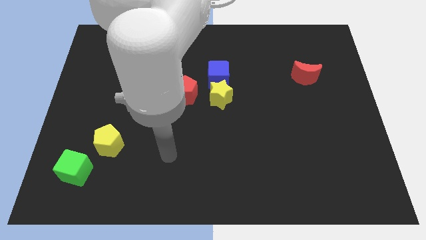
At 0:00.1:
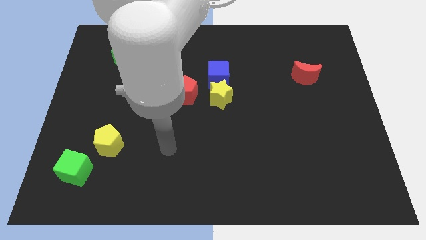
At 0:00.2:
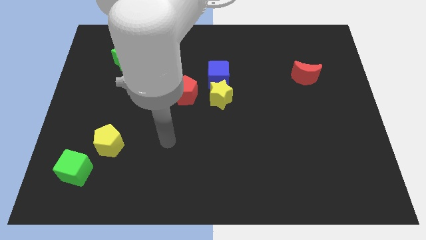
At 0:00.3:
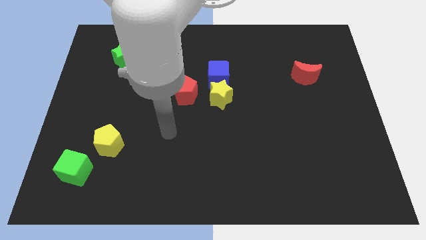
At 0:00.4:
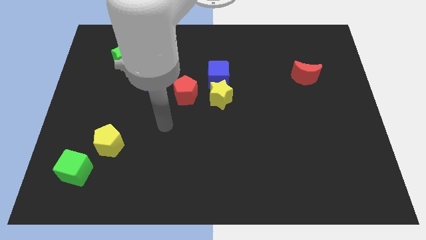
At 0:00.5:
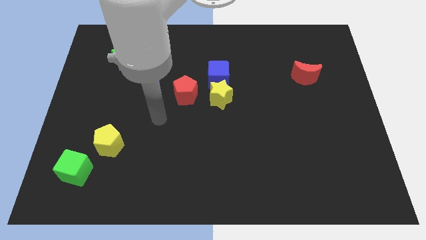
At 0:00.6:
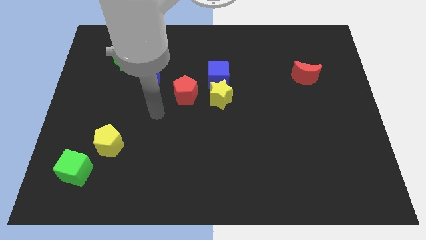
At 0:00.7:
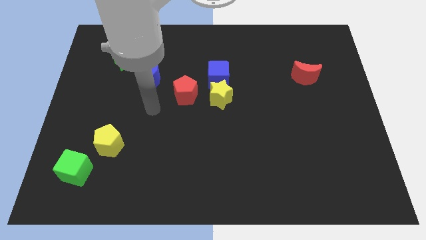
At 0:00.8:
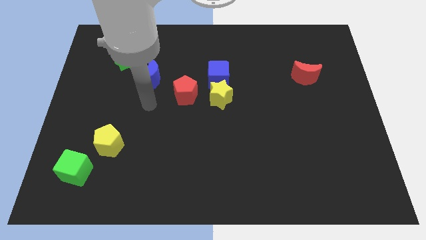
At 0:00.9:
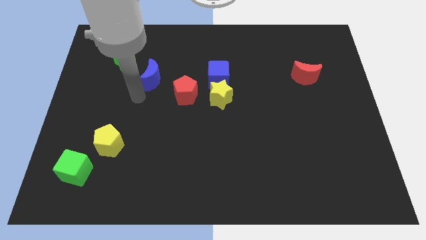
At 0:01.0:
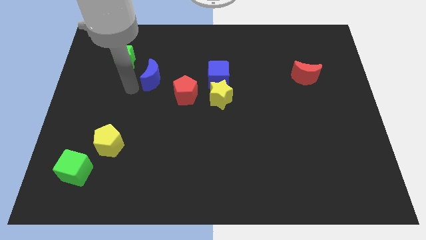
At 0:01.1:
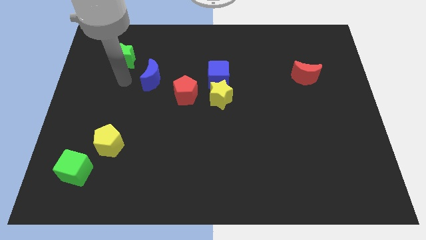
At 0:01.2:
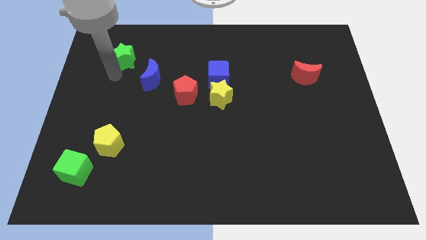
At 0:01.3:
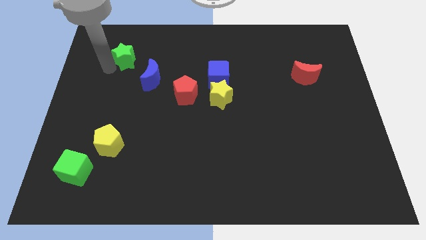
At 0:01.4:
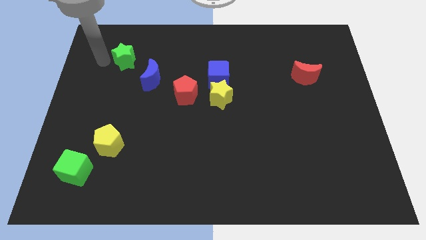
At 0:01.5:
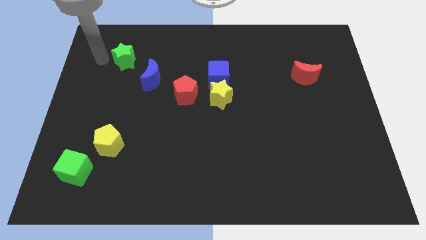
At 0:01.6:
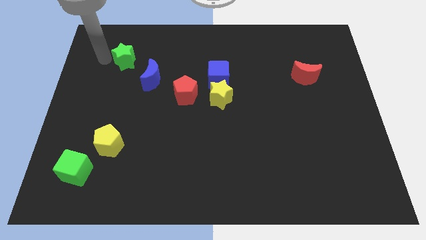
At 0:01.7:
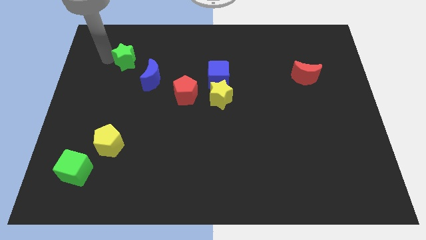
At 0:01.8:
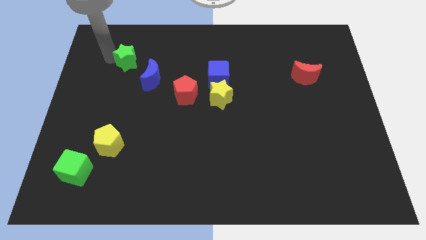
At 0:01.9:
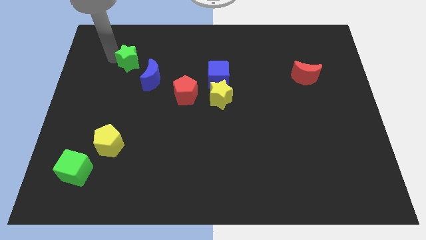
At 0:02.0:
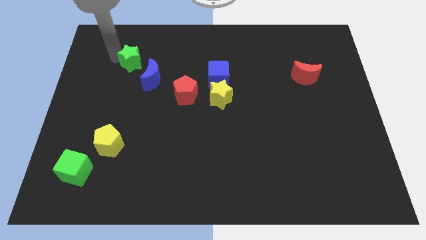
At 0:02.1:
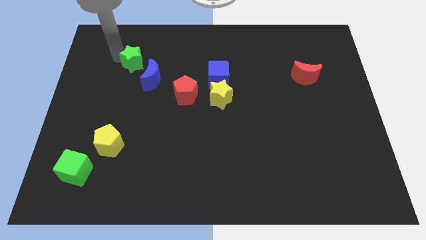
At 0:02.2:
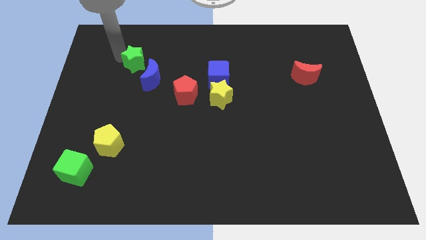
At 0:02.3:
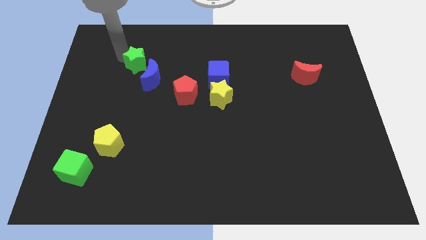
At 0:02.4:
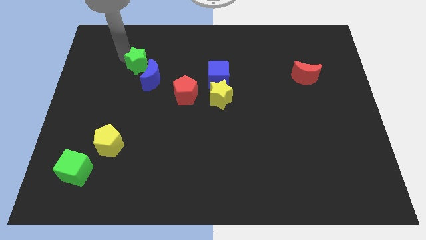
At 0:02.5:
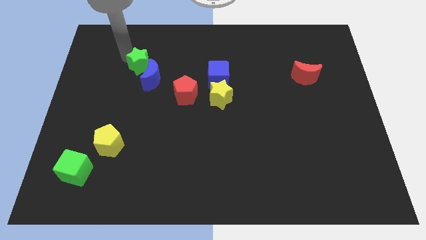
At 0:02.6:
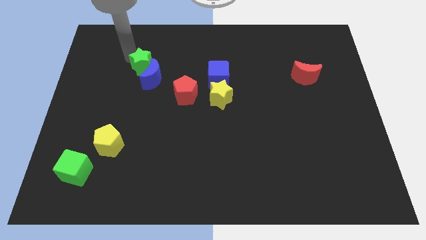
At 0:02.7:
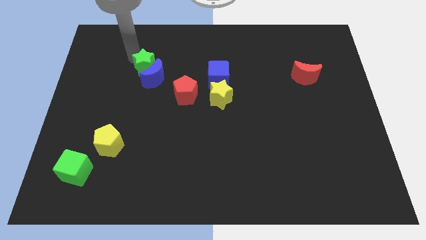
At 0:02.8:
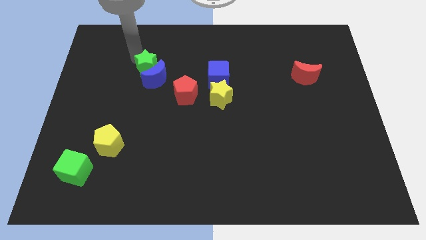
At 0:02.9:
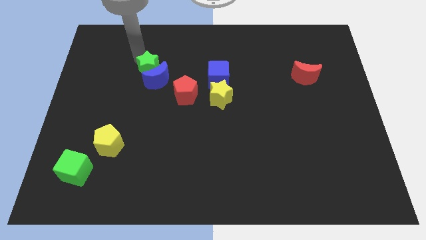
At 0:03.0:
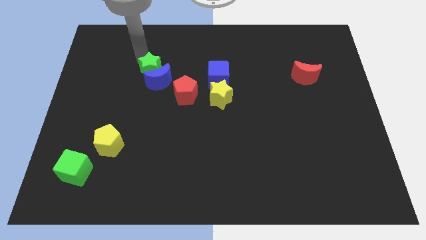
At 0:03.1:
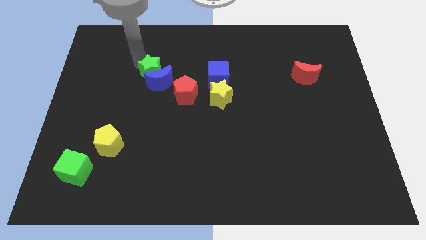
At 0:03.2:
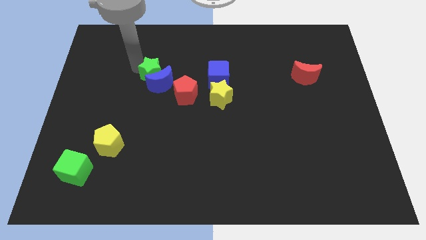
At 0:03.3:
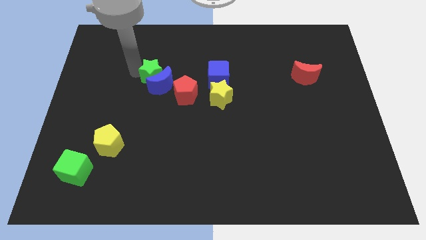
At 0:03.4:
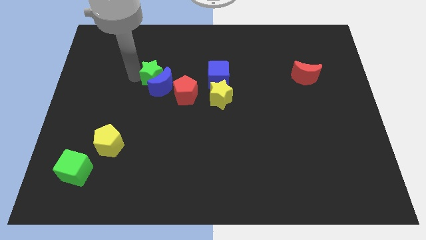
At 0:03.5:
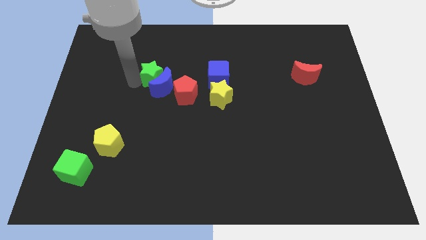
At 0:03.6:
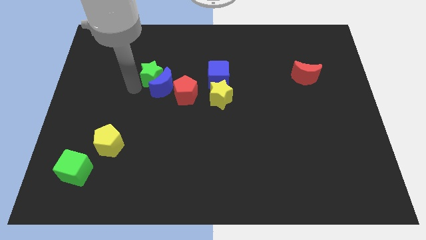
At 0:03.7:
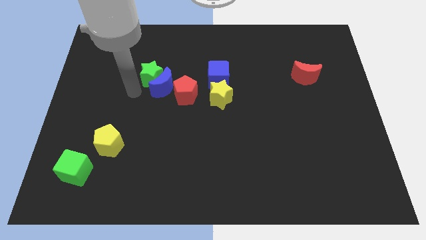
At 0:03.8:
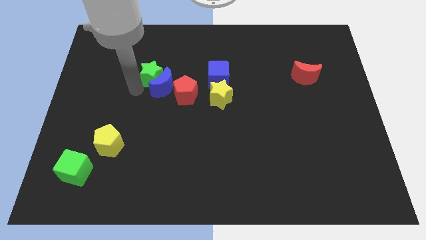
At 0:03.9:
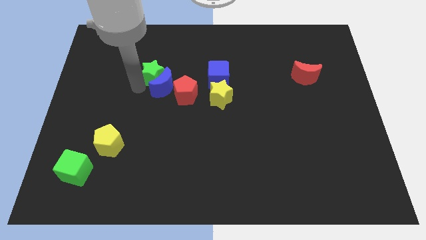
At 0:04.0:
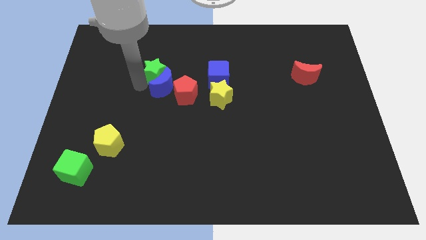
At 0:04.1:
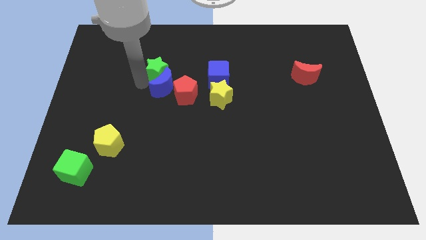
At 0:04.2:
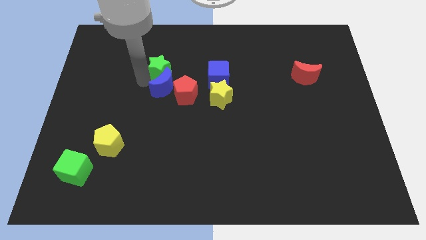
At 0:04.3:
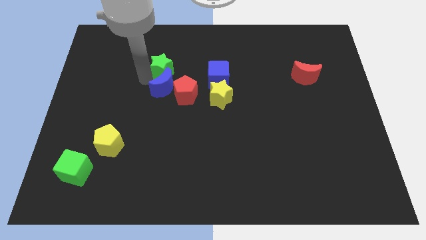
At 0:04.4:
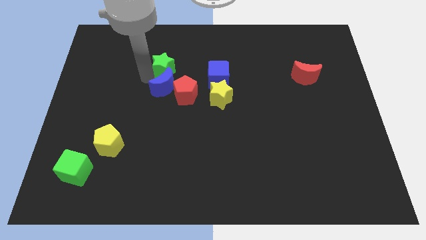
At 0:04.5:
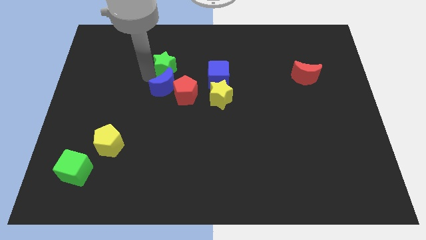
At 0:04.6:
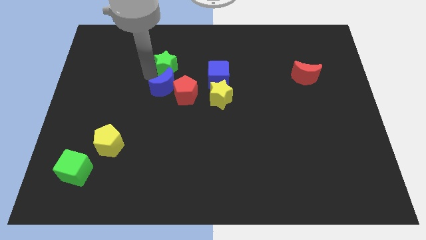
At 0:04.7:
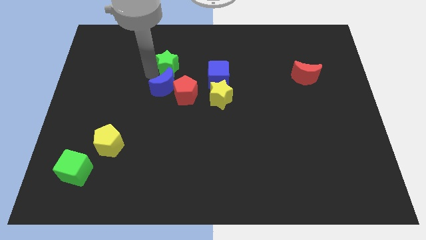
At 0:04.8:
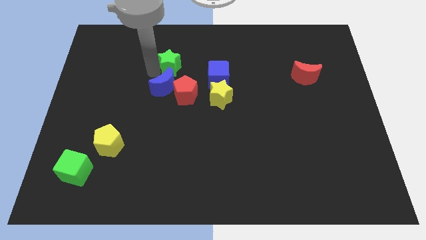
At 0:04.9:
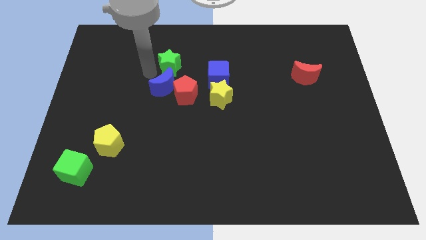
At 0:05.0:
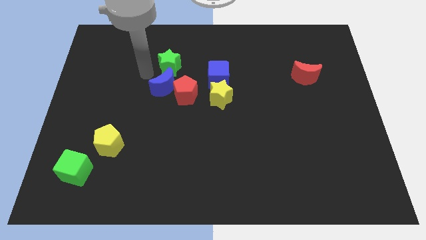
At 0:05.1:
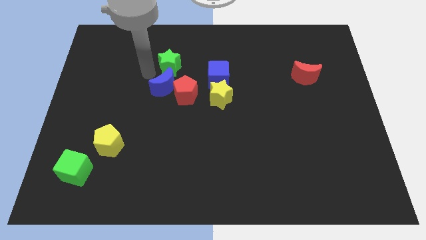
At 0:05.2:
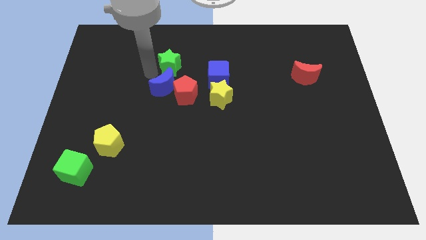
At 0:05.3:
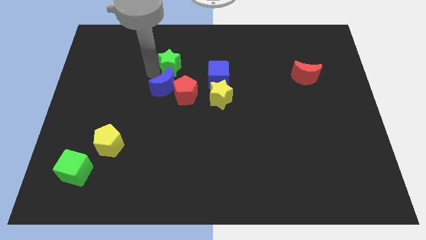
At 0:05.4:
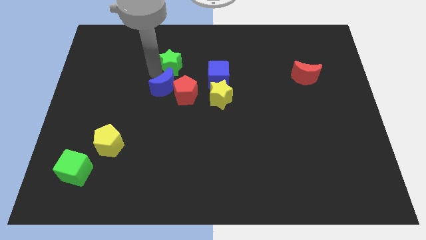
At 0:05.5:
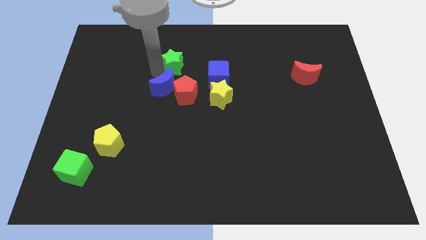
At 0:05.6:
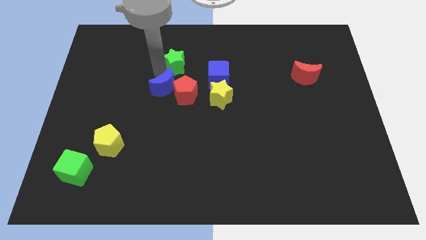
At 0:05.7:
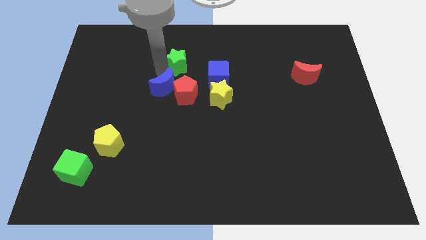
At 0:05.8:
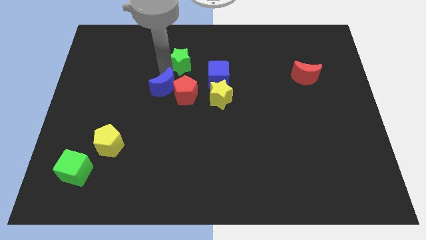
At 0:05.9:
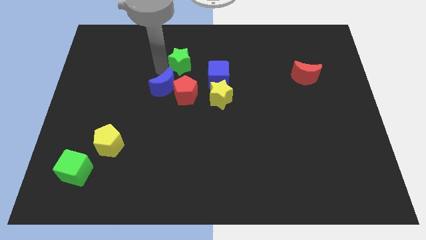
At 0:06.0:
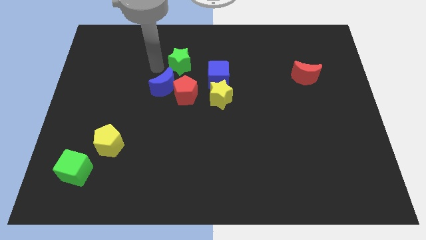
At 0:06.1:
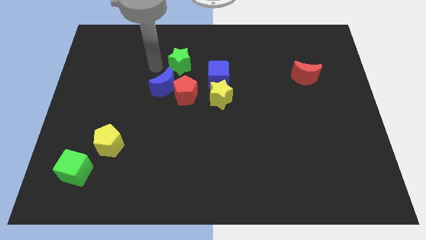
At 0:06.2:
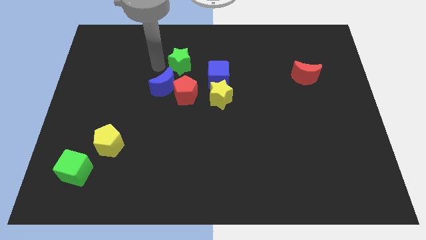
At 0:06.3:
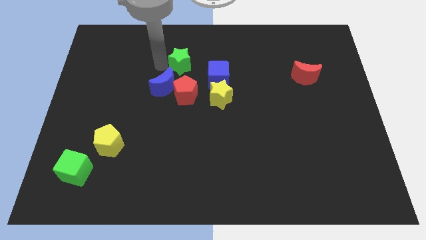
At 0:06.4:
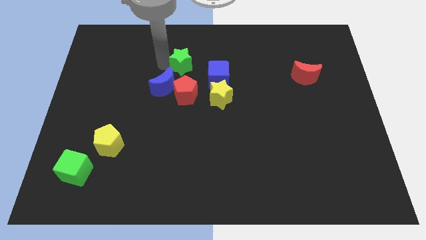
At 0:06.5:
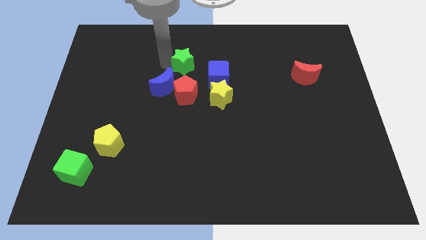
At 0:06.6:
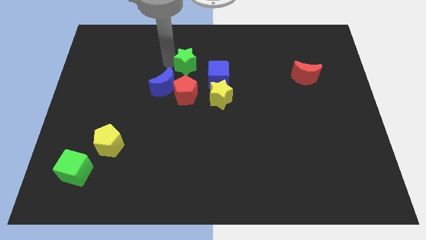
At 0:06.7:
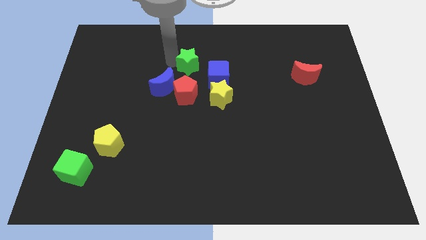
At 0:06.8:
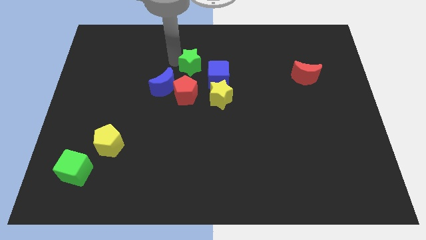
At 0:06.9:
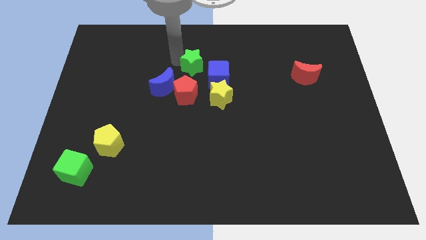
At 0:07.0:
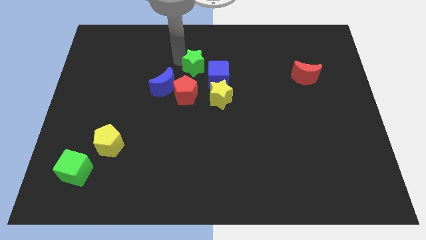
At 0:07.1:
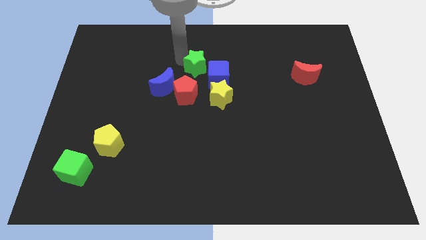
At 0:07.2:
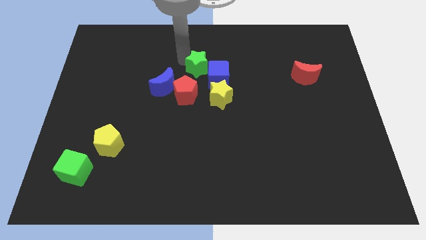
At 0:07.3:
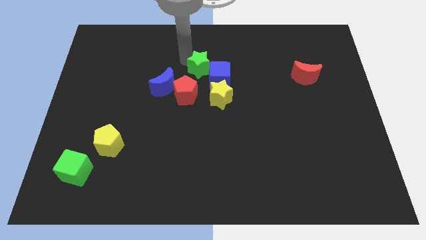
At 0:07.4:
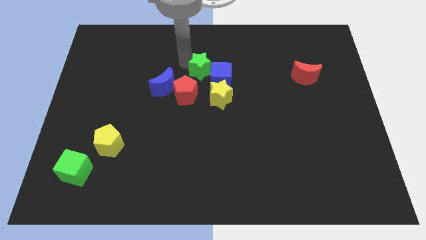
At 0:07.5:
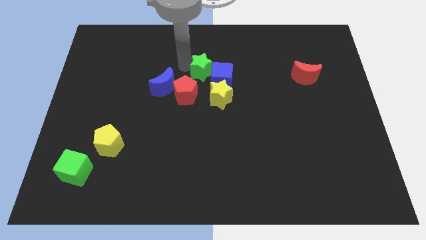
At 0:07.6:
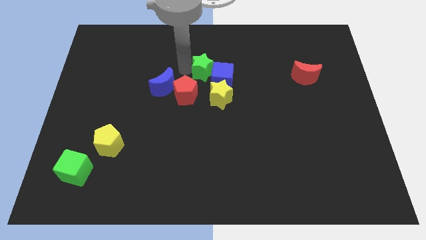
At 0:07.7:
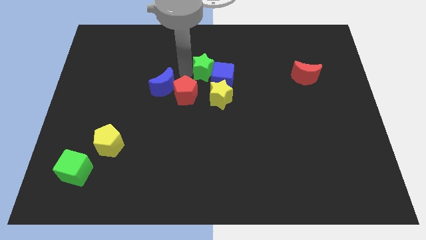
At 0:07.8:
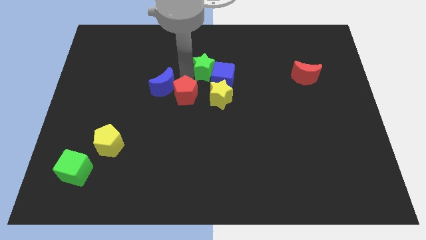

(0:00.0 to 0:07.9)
slide the green star right
